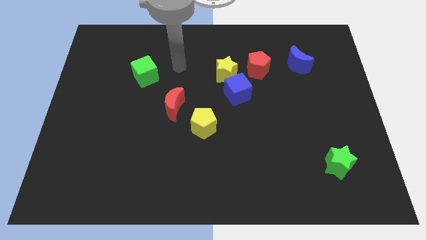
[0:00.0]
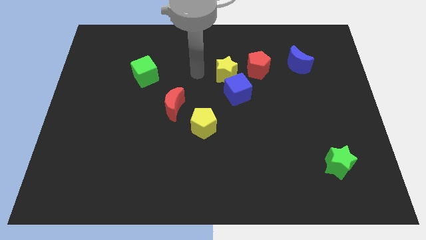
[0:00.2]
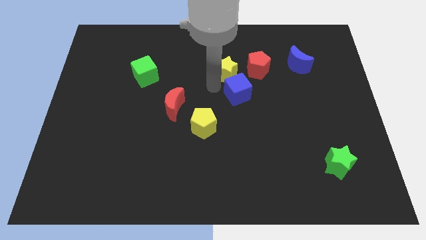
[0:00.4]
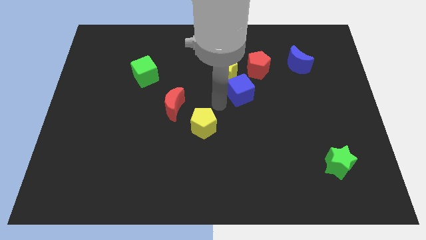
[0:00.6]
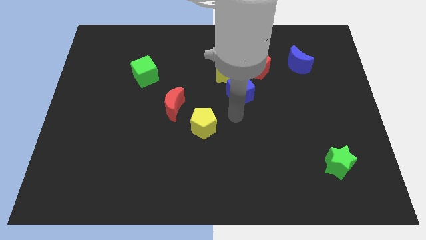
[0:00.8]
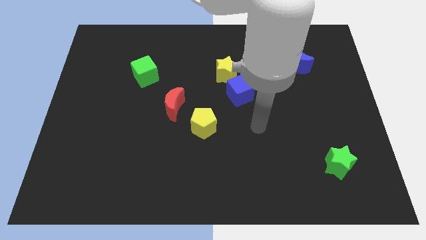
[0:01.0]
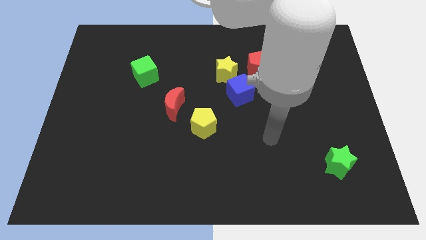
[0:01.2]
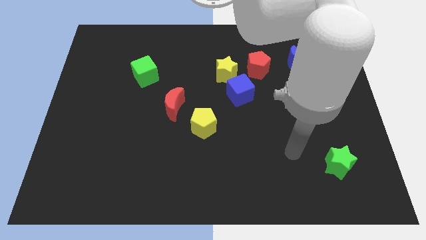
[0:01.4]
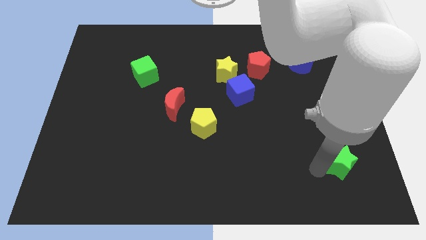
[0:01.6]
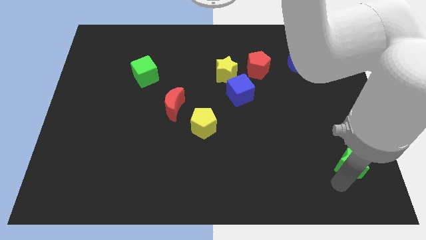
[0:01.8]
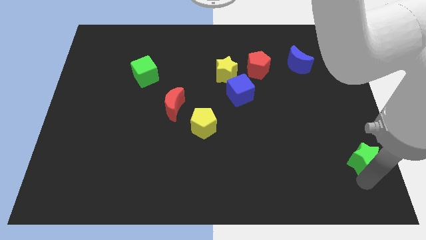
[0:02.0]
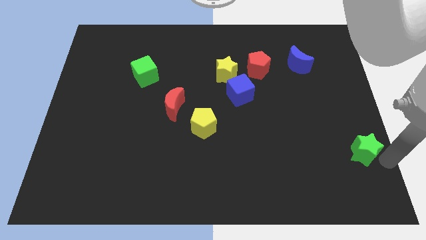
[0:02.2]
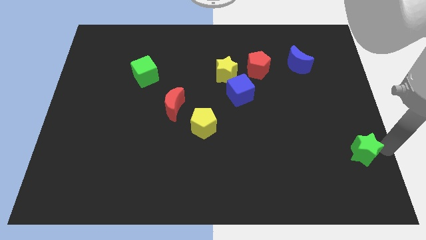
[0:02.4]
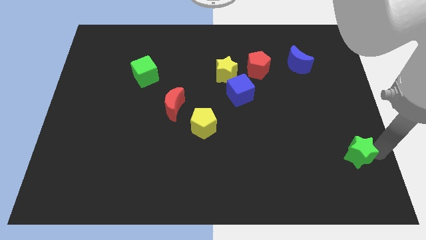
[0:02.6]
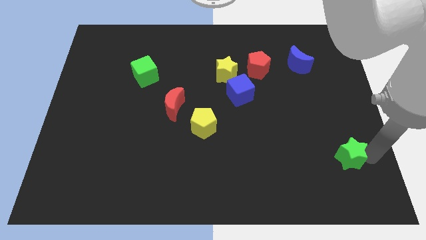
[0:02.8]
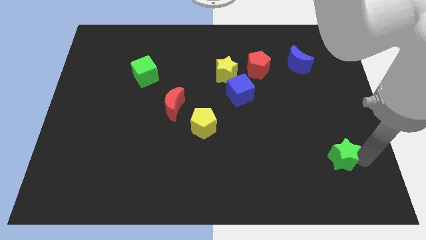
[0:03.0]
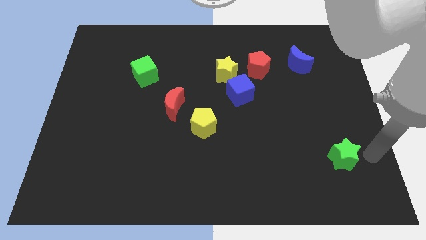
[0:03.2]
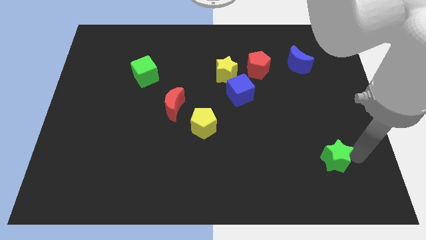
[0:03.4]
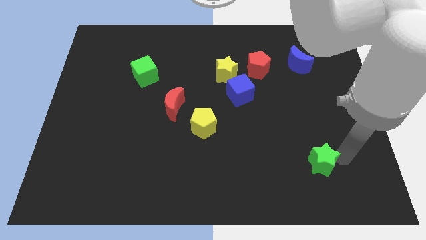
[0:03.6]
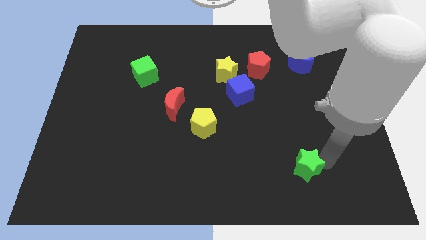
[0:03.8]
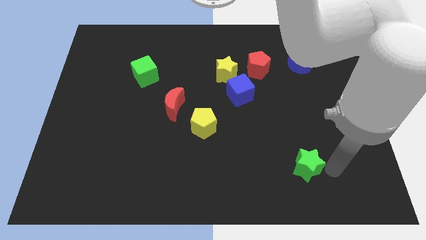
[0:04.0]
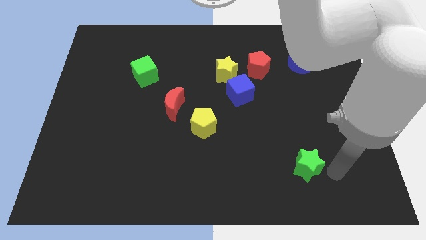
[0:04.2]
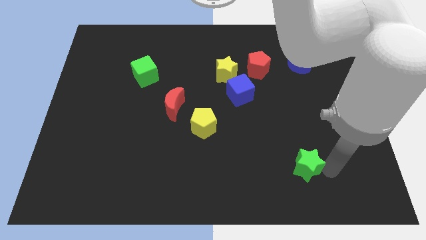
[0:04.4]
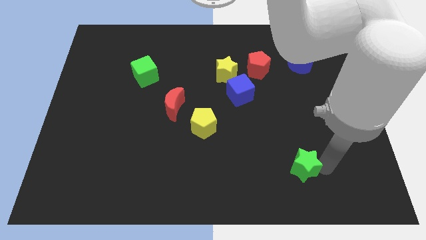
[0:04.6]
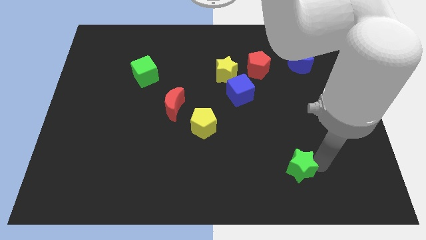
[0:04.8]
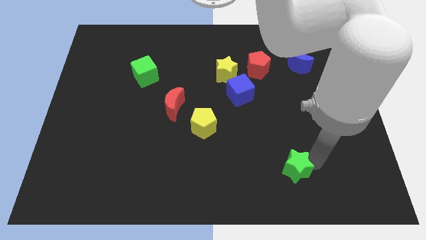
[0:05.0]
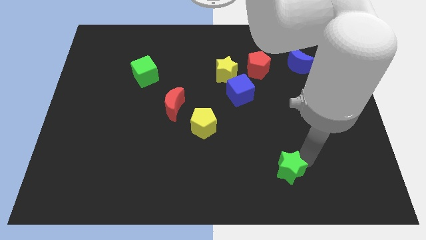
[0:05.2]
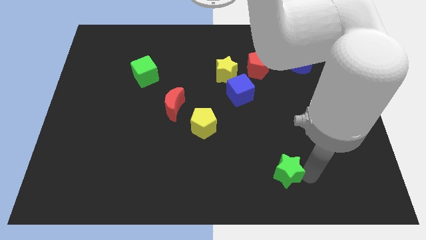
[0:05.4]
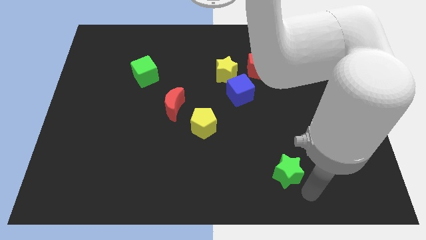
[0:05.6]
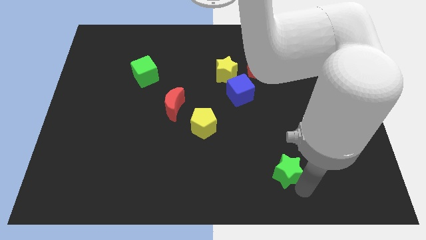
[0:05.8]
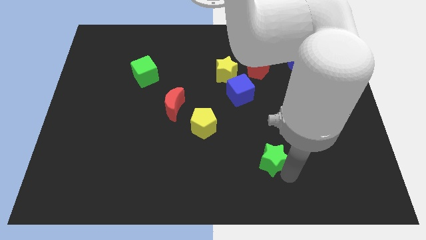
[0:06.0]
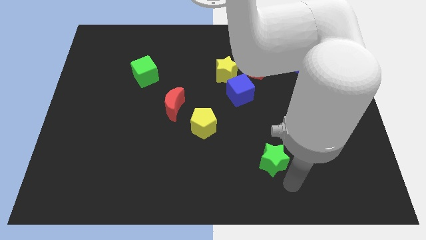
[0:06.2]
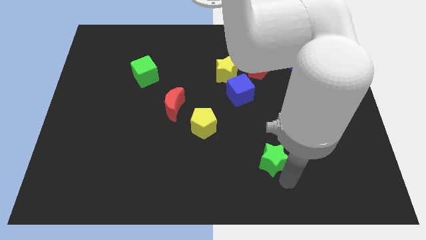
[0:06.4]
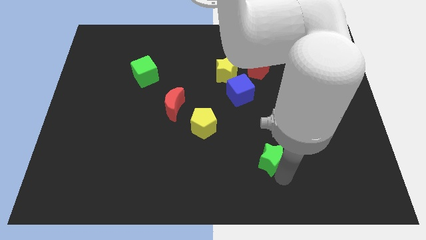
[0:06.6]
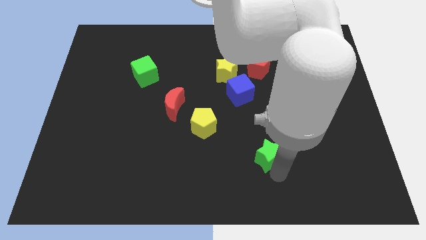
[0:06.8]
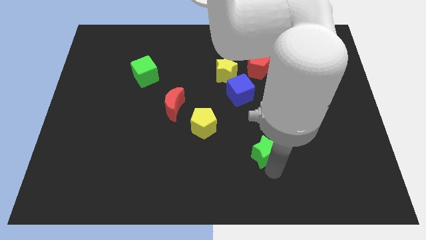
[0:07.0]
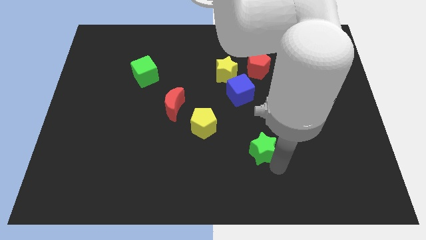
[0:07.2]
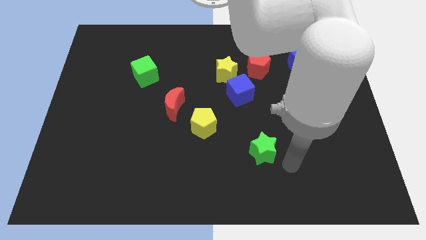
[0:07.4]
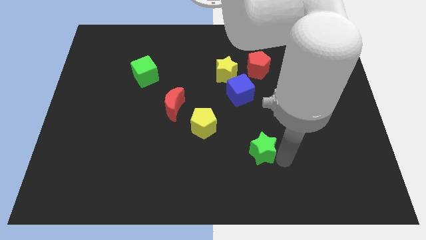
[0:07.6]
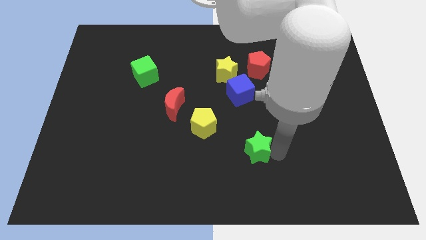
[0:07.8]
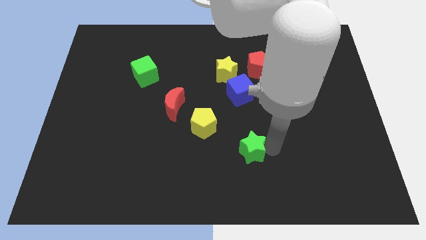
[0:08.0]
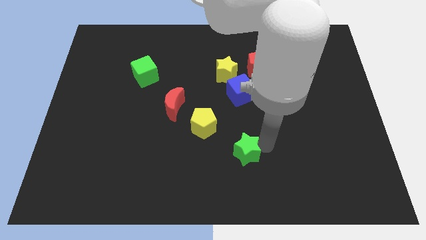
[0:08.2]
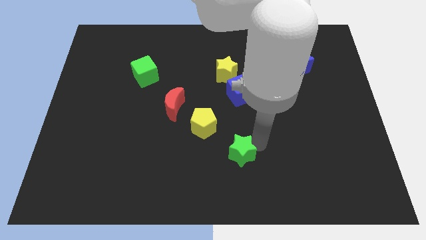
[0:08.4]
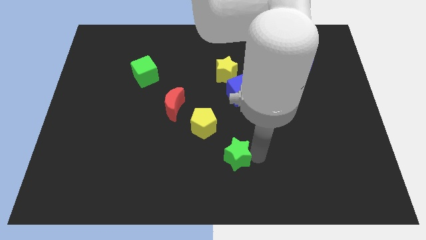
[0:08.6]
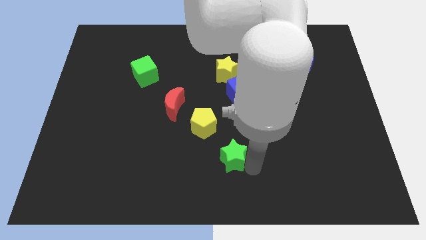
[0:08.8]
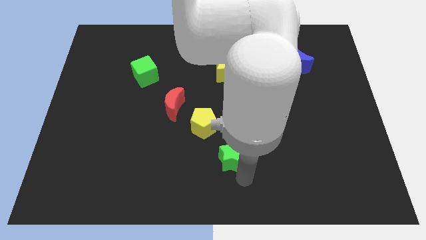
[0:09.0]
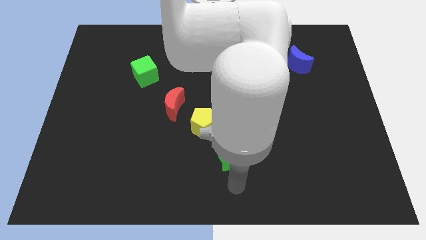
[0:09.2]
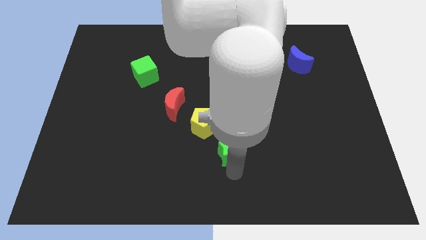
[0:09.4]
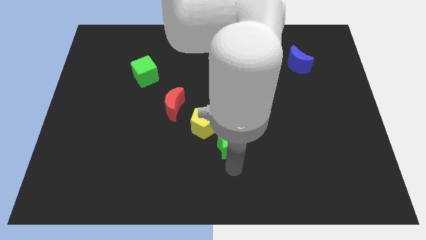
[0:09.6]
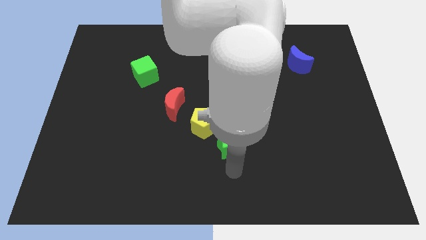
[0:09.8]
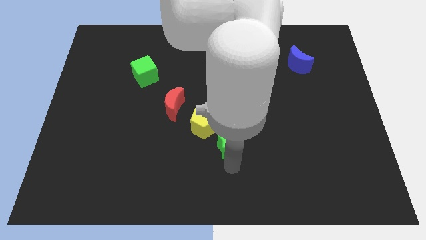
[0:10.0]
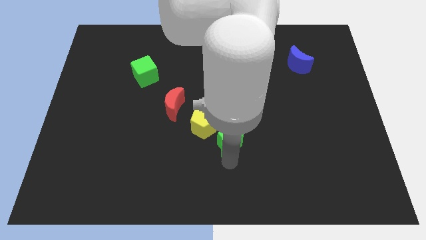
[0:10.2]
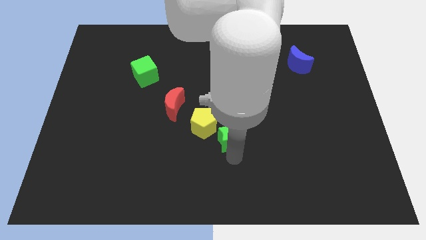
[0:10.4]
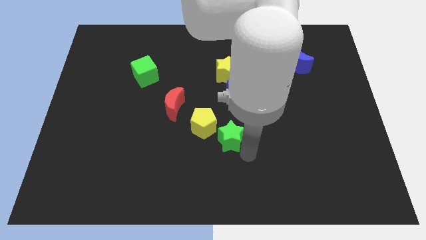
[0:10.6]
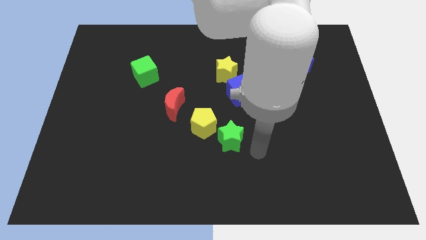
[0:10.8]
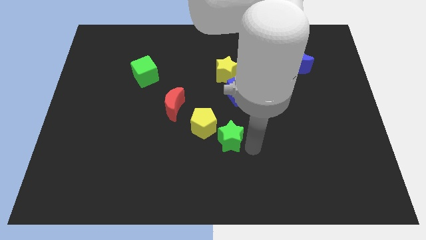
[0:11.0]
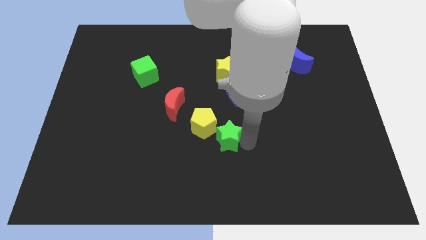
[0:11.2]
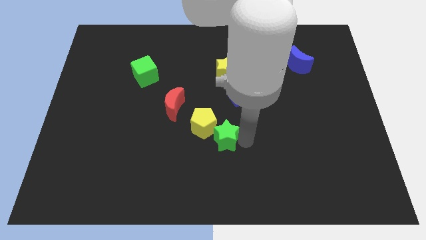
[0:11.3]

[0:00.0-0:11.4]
push the green star to the yellow pentagon

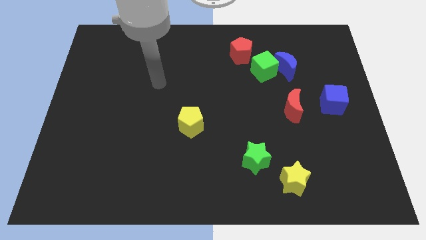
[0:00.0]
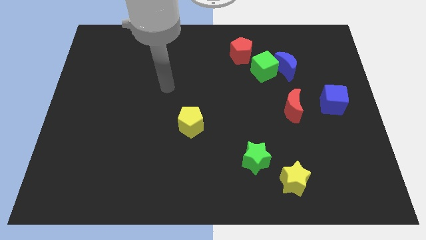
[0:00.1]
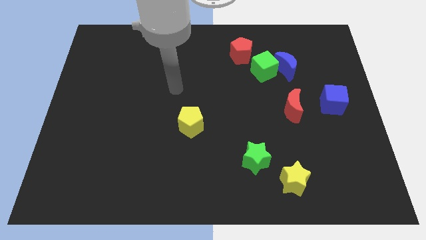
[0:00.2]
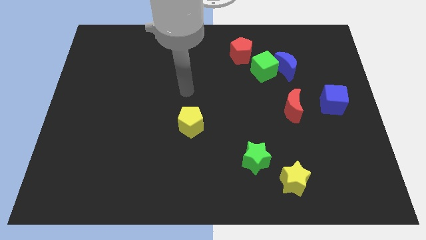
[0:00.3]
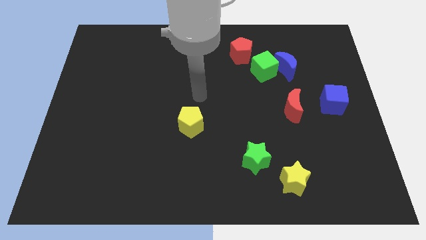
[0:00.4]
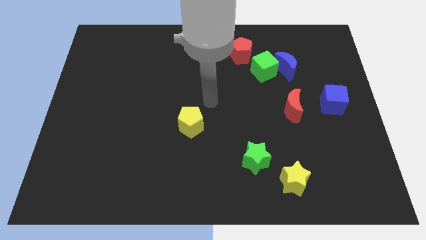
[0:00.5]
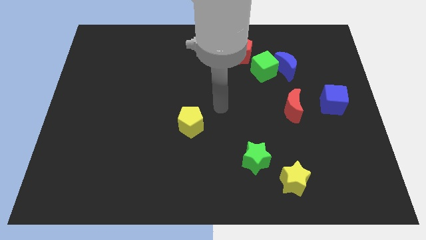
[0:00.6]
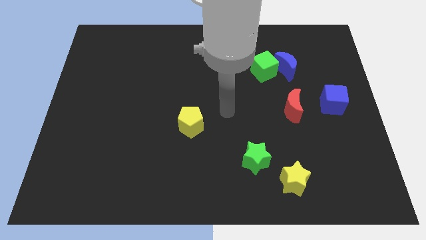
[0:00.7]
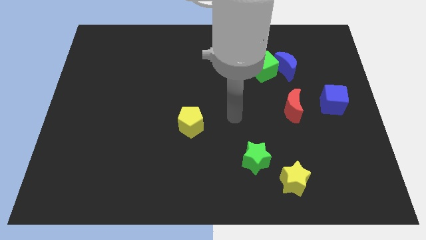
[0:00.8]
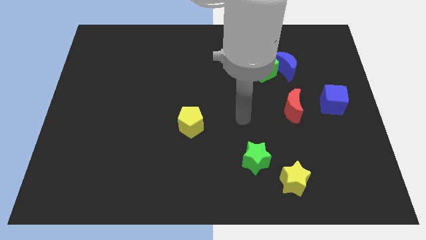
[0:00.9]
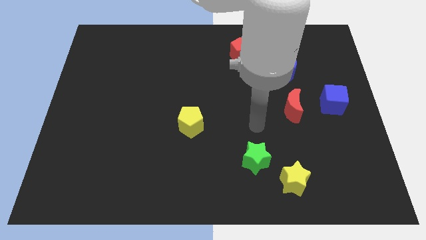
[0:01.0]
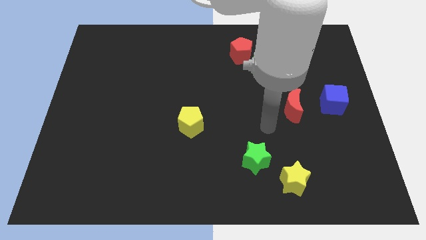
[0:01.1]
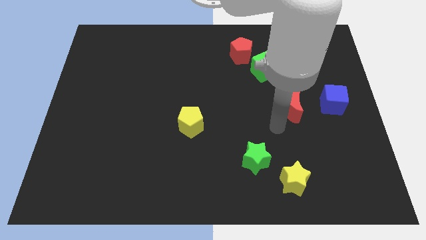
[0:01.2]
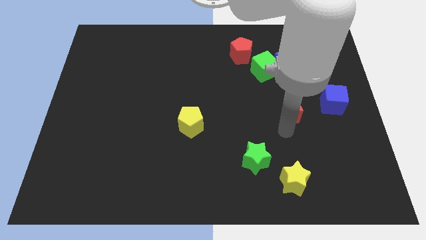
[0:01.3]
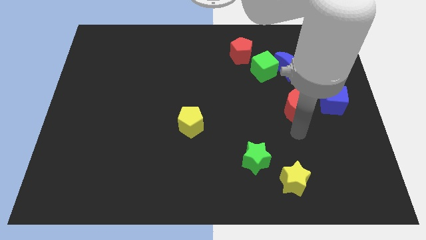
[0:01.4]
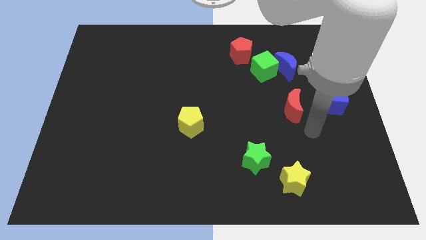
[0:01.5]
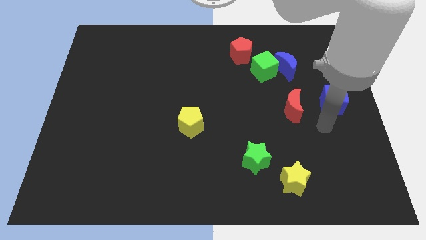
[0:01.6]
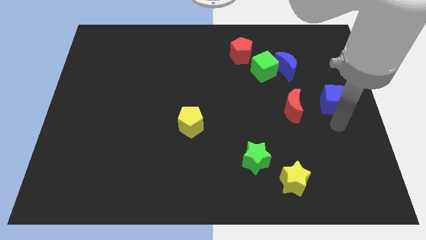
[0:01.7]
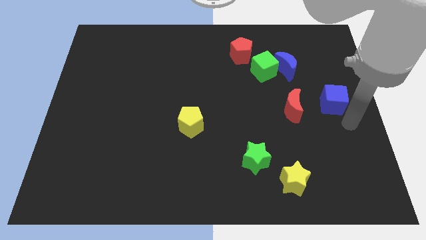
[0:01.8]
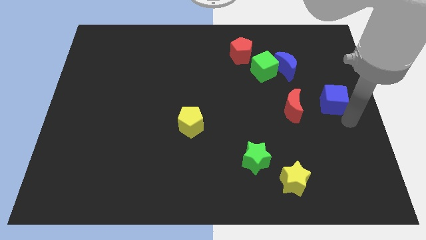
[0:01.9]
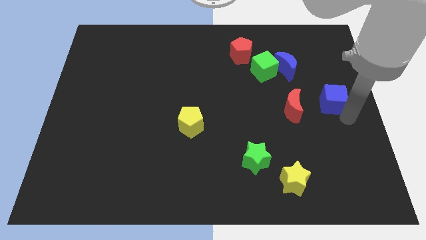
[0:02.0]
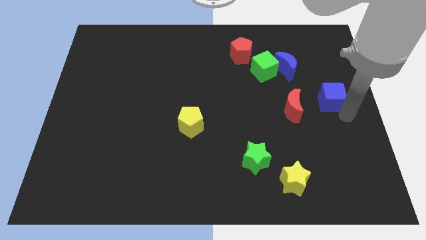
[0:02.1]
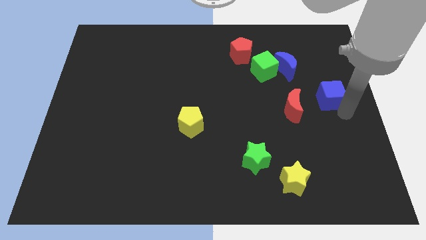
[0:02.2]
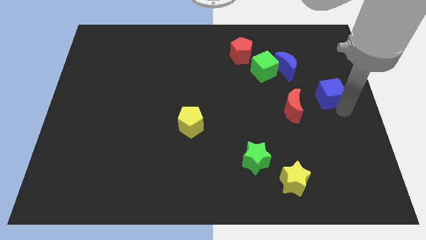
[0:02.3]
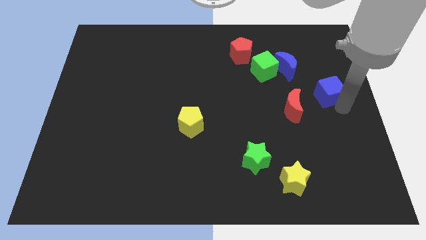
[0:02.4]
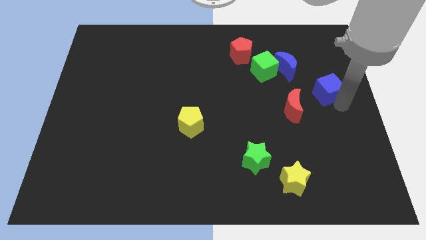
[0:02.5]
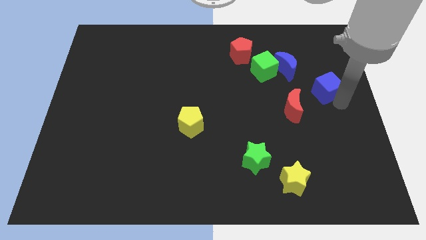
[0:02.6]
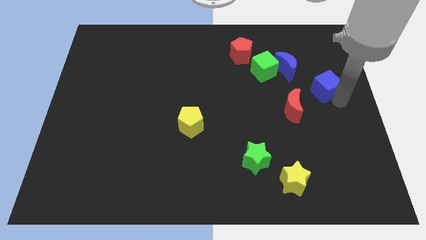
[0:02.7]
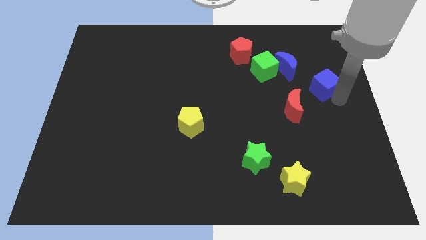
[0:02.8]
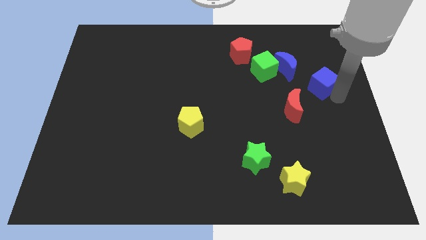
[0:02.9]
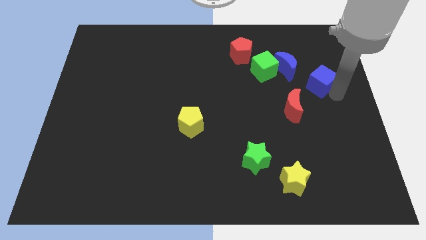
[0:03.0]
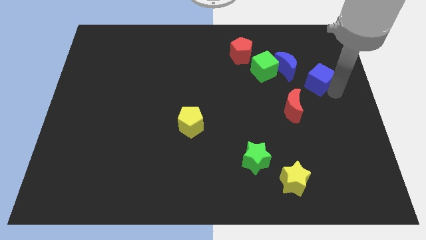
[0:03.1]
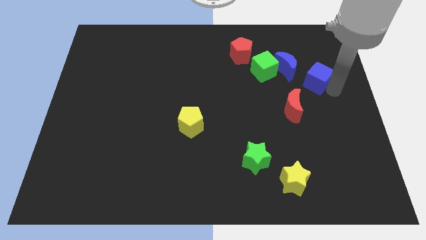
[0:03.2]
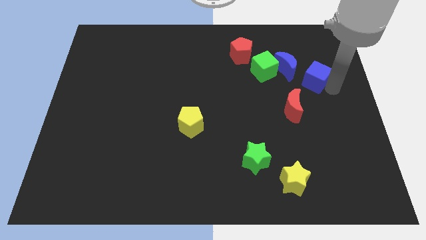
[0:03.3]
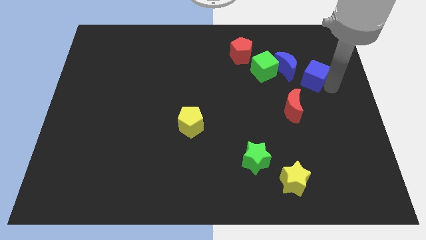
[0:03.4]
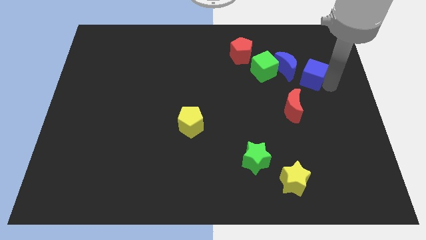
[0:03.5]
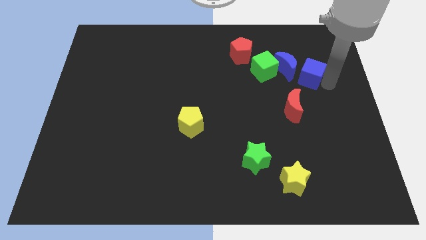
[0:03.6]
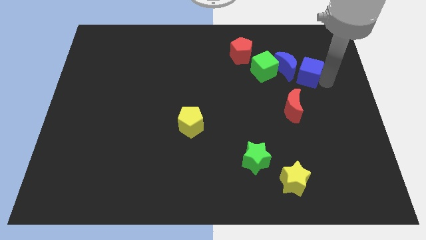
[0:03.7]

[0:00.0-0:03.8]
slide the blue cube next to the blue moon
